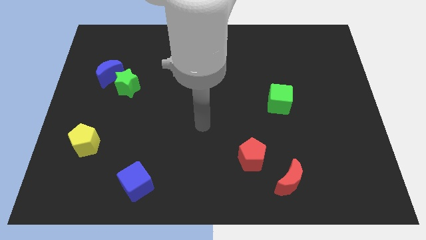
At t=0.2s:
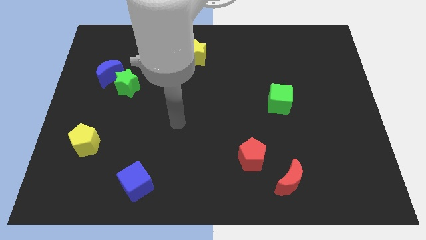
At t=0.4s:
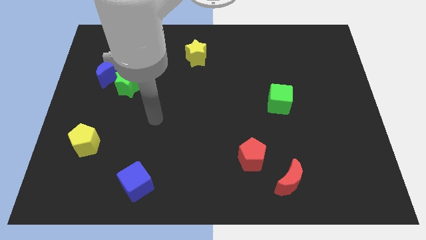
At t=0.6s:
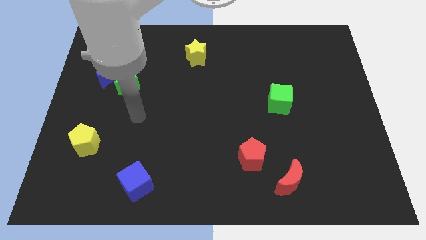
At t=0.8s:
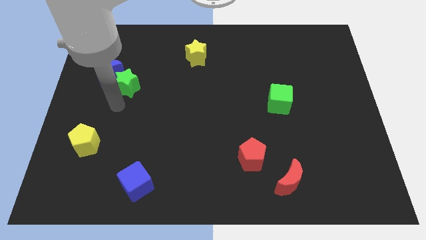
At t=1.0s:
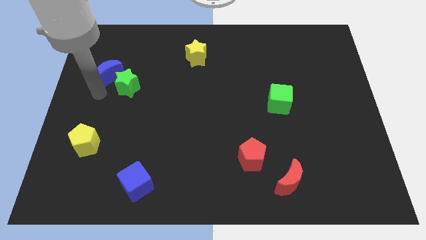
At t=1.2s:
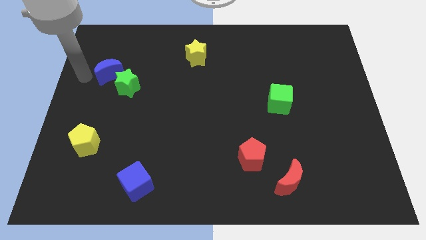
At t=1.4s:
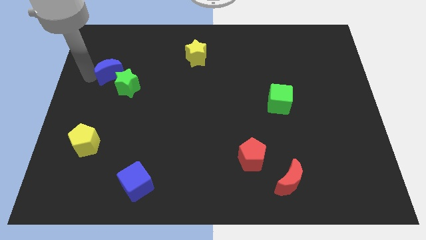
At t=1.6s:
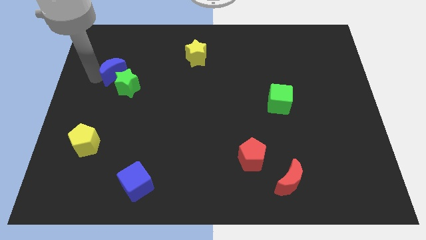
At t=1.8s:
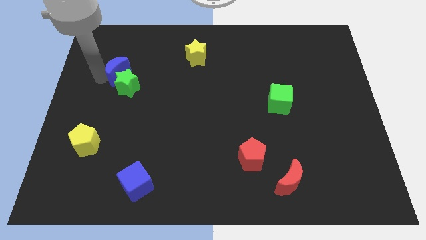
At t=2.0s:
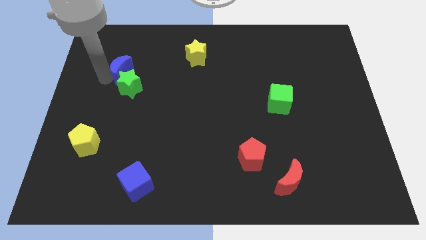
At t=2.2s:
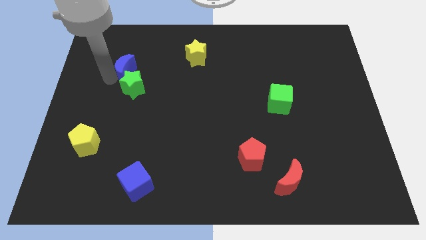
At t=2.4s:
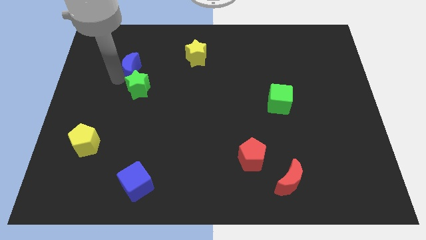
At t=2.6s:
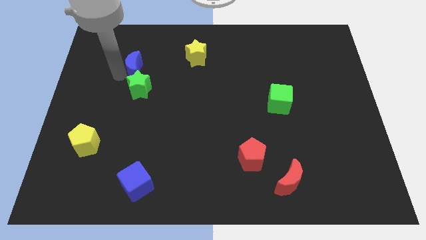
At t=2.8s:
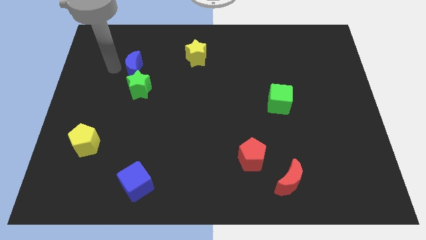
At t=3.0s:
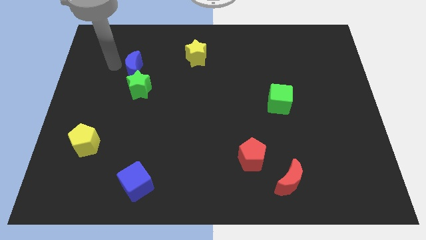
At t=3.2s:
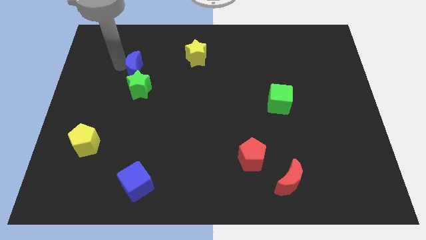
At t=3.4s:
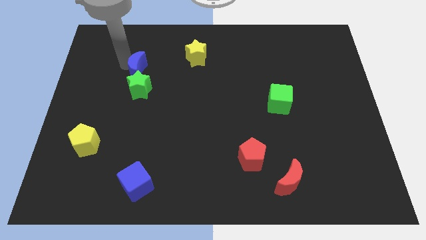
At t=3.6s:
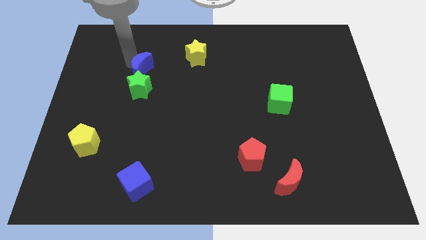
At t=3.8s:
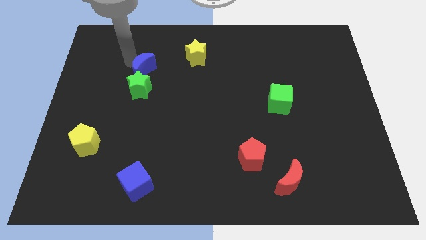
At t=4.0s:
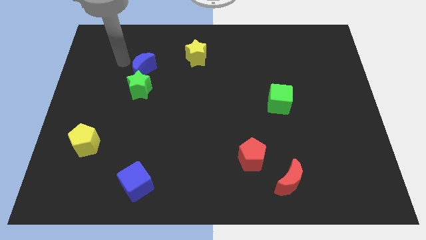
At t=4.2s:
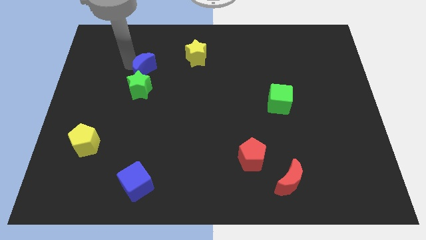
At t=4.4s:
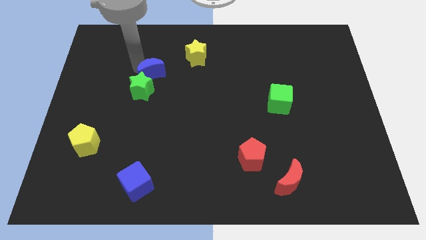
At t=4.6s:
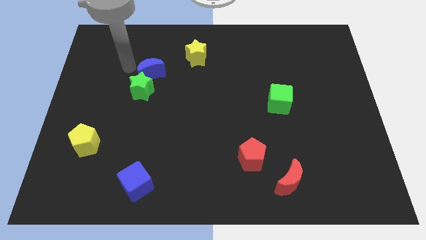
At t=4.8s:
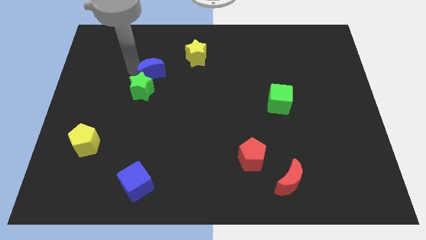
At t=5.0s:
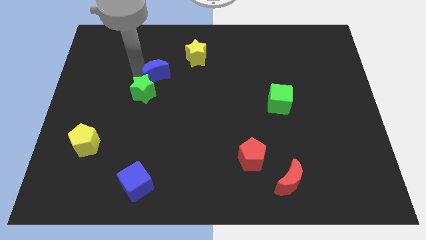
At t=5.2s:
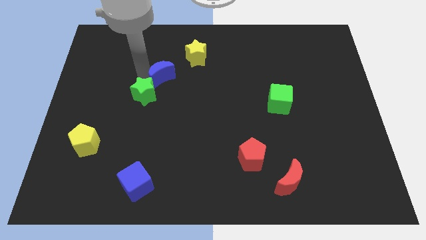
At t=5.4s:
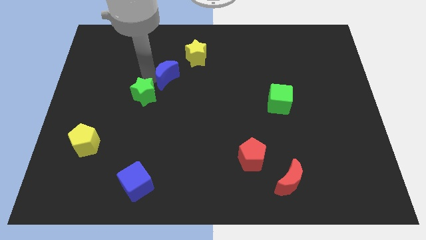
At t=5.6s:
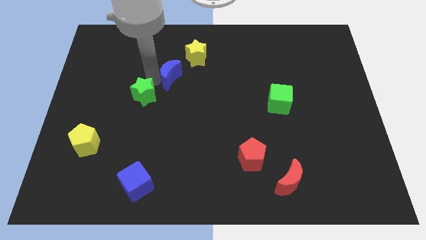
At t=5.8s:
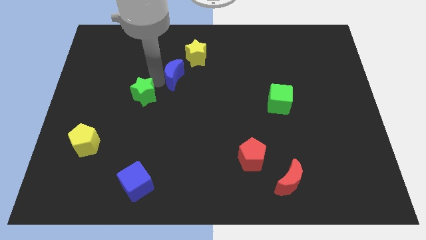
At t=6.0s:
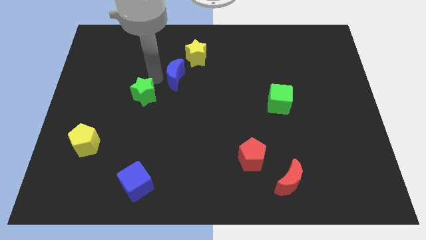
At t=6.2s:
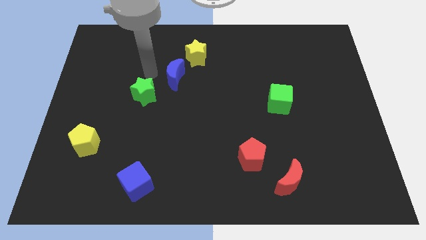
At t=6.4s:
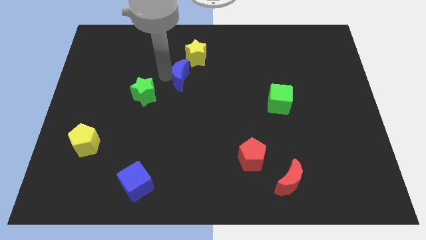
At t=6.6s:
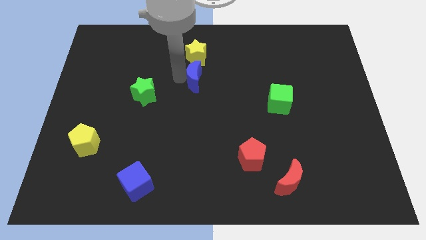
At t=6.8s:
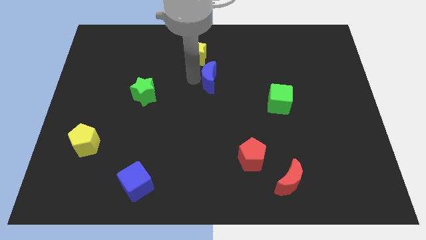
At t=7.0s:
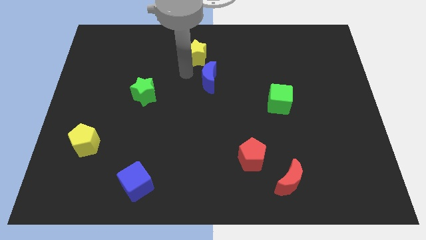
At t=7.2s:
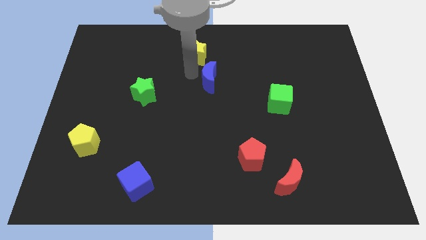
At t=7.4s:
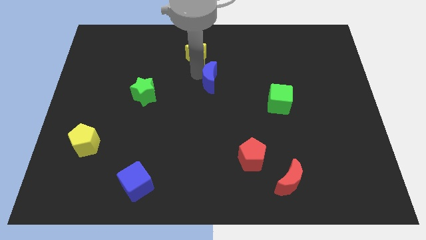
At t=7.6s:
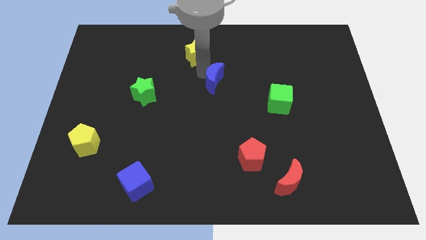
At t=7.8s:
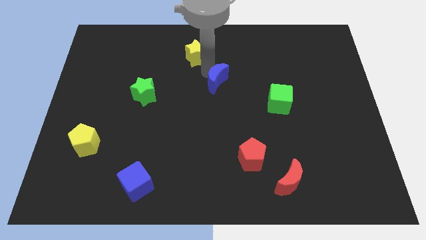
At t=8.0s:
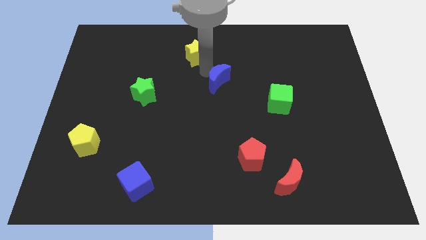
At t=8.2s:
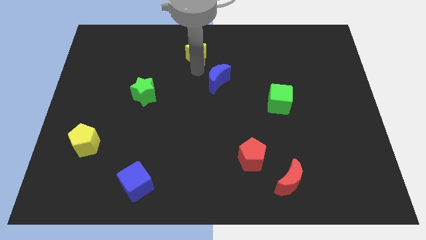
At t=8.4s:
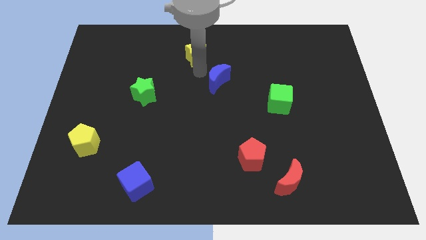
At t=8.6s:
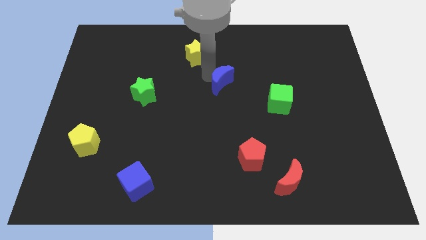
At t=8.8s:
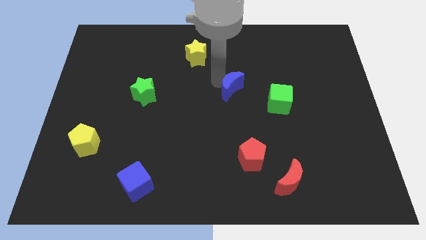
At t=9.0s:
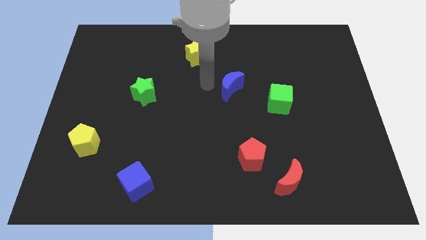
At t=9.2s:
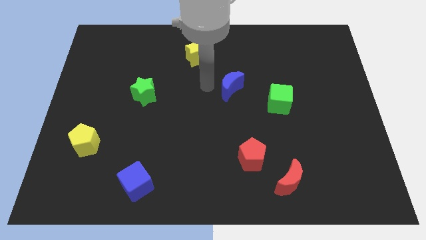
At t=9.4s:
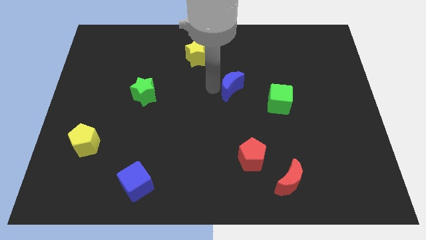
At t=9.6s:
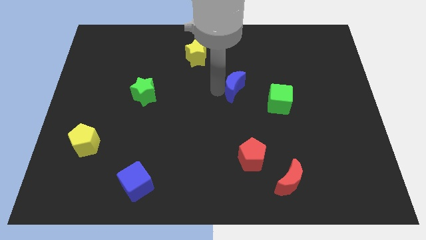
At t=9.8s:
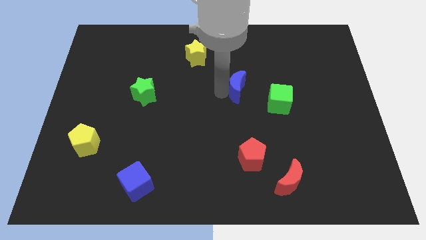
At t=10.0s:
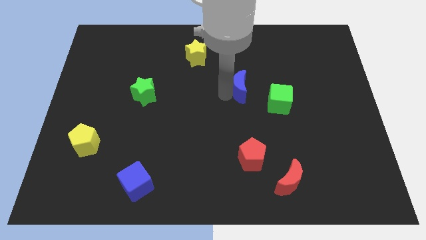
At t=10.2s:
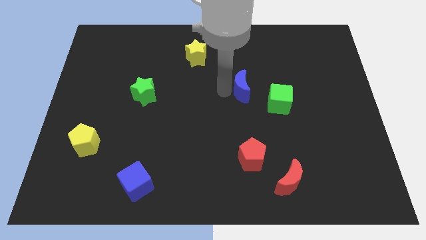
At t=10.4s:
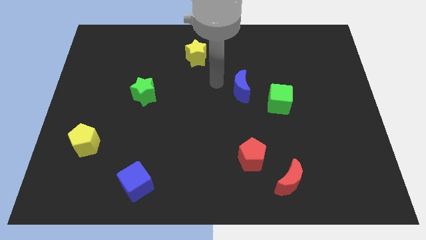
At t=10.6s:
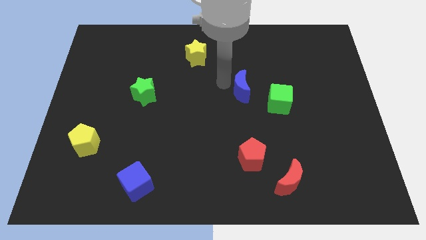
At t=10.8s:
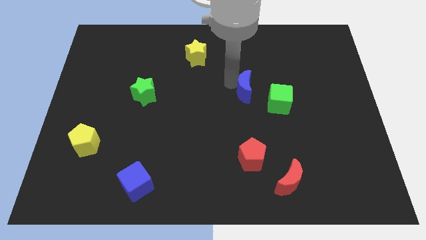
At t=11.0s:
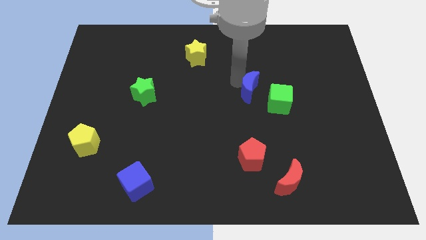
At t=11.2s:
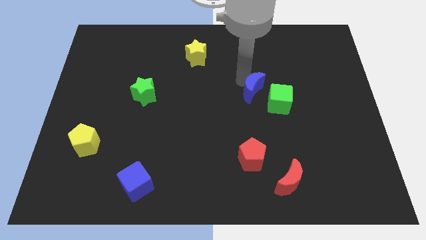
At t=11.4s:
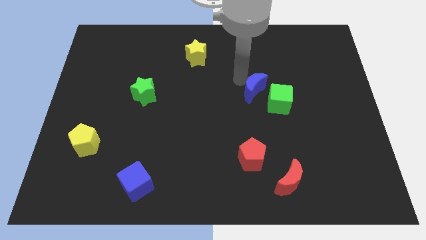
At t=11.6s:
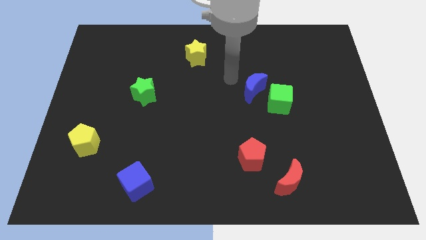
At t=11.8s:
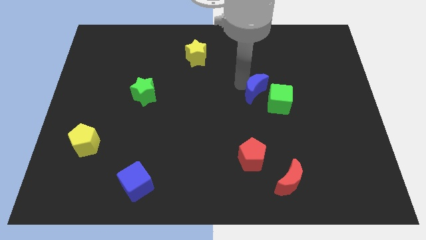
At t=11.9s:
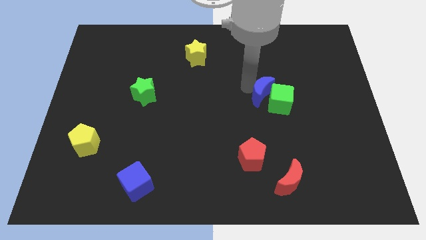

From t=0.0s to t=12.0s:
slide the blue moon towards the green cube

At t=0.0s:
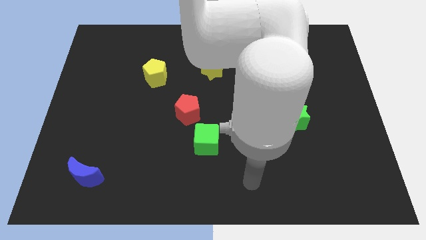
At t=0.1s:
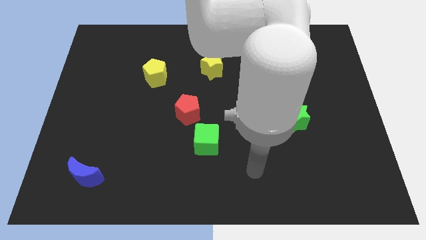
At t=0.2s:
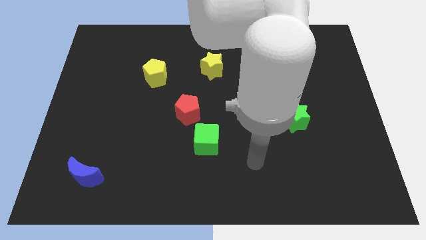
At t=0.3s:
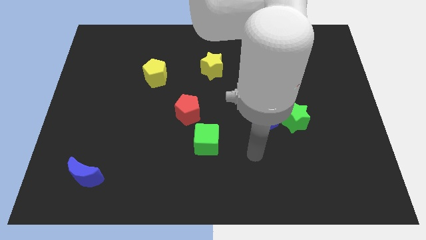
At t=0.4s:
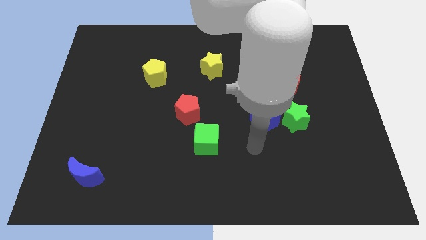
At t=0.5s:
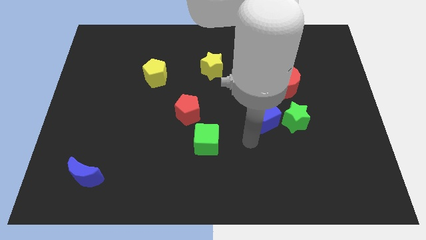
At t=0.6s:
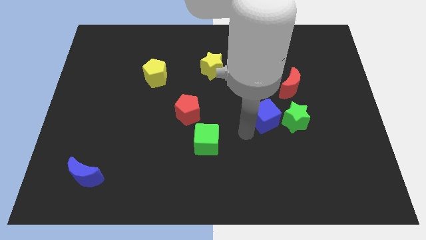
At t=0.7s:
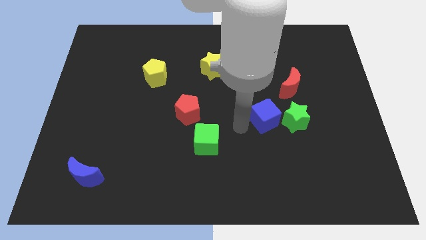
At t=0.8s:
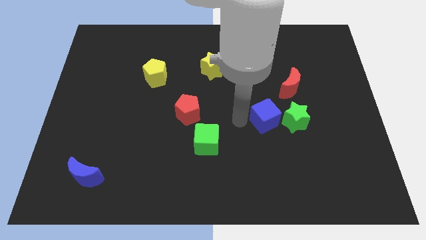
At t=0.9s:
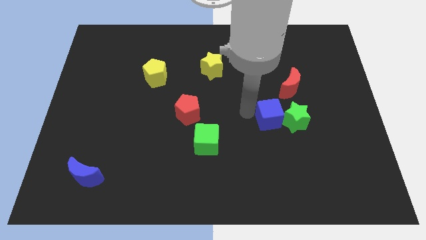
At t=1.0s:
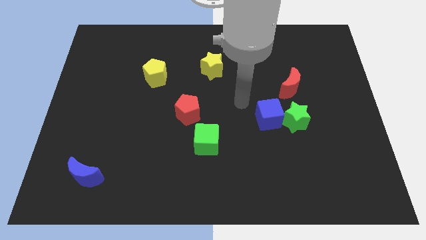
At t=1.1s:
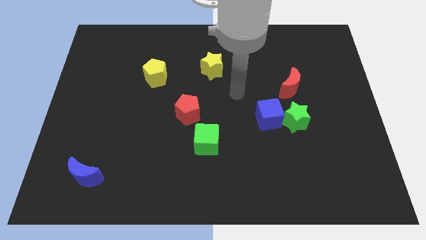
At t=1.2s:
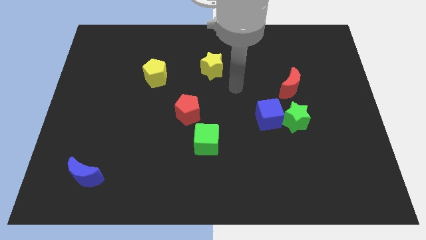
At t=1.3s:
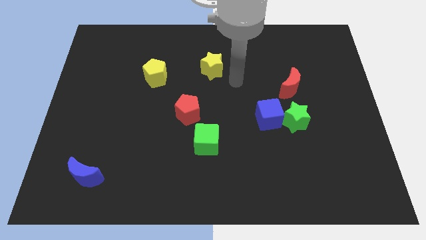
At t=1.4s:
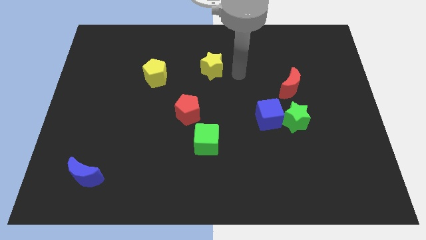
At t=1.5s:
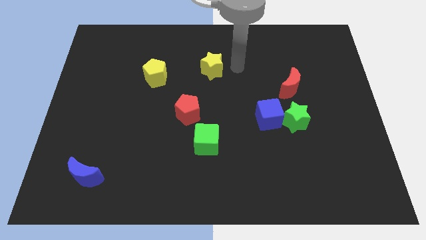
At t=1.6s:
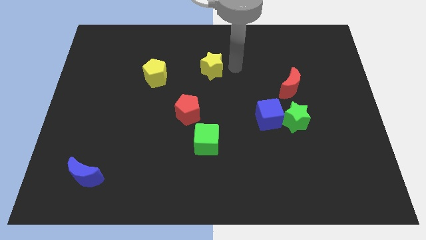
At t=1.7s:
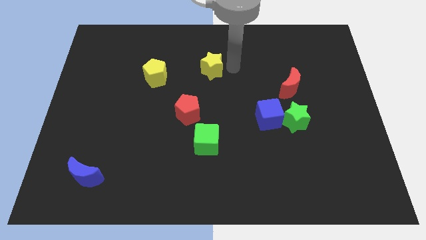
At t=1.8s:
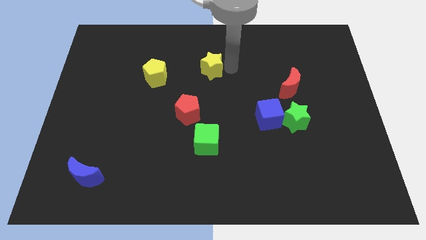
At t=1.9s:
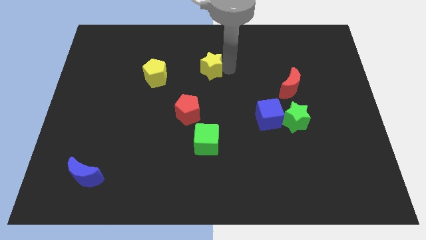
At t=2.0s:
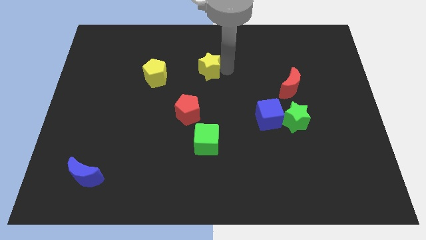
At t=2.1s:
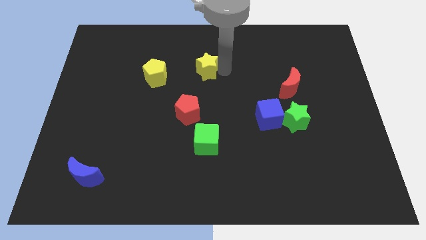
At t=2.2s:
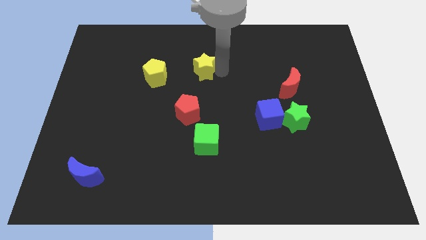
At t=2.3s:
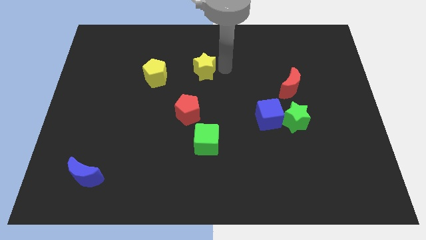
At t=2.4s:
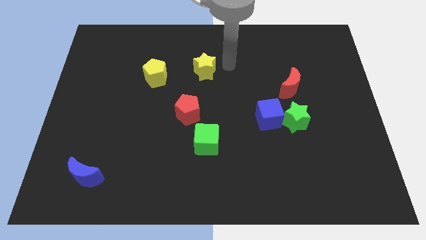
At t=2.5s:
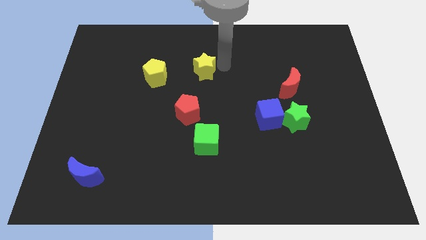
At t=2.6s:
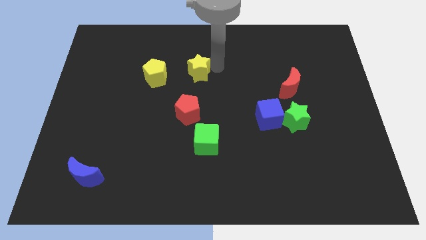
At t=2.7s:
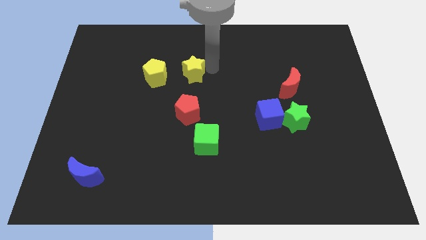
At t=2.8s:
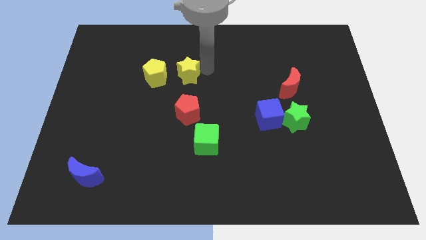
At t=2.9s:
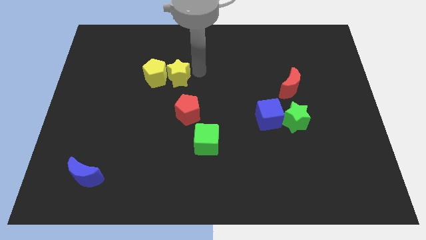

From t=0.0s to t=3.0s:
slide the yellow star close to the yellow pentagon
